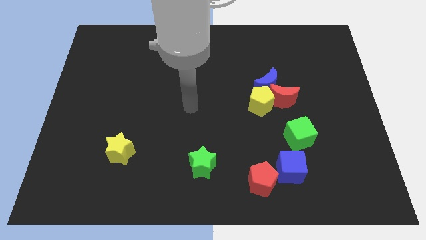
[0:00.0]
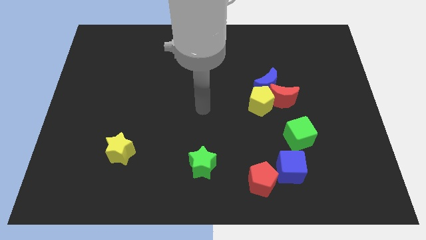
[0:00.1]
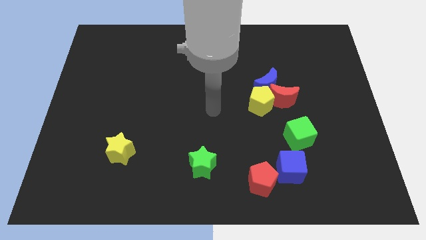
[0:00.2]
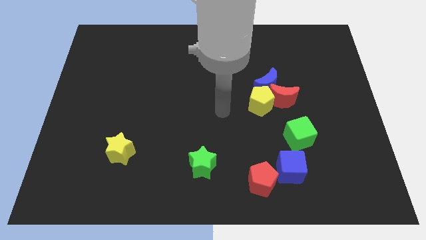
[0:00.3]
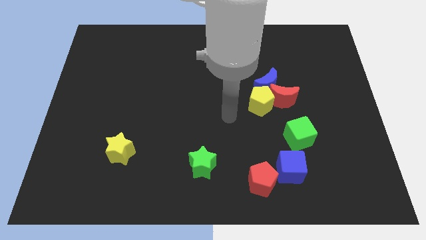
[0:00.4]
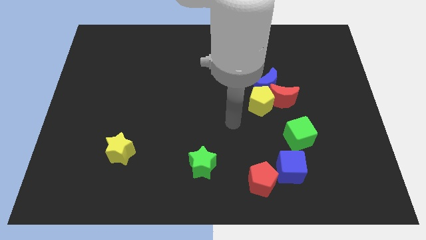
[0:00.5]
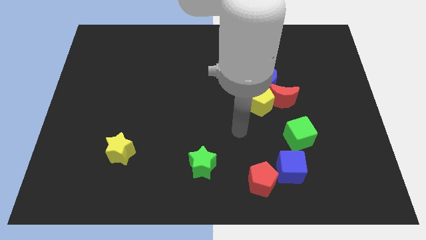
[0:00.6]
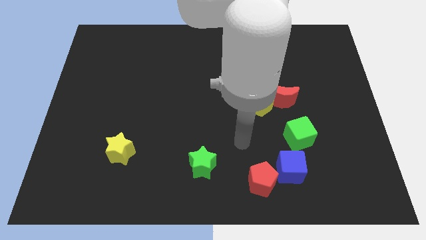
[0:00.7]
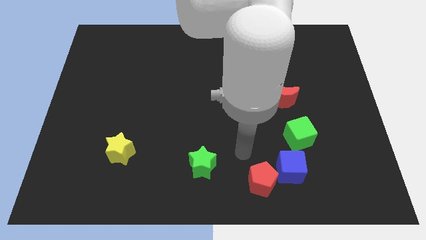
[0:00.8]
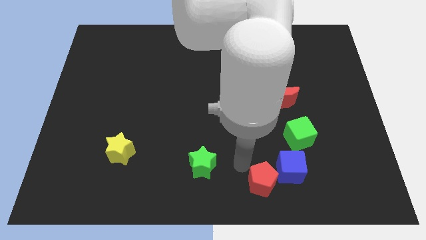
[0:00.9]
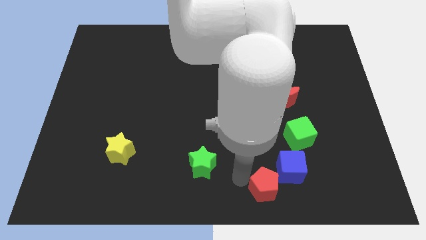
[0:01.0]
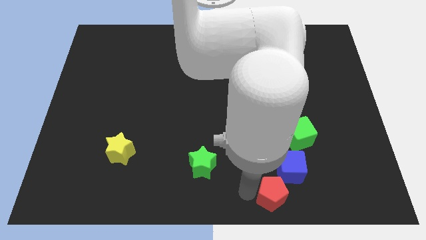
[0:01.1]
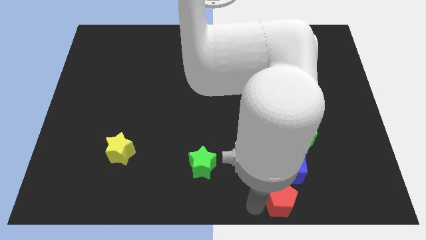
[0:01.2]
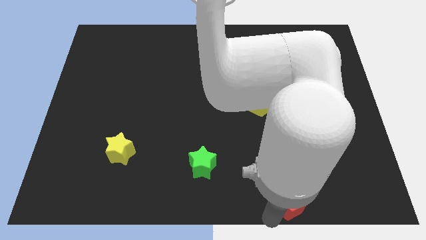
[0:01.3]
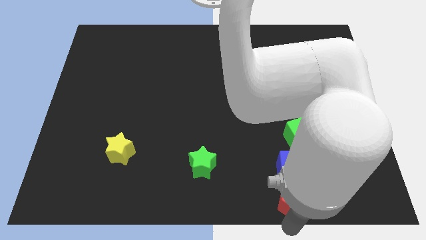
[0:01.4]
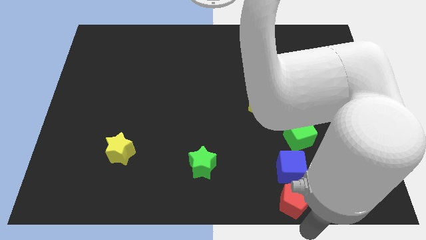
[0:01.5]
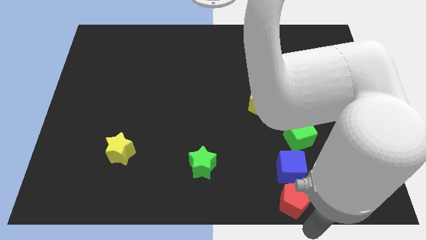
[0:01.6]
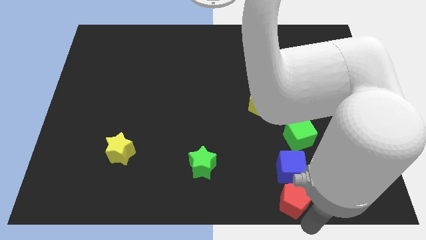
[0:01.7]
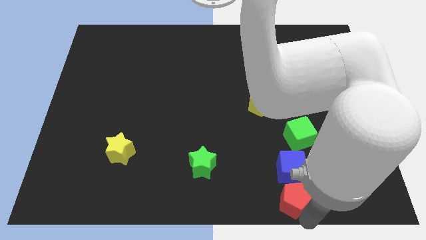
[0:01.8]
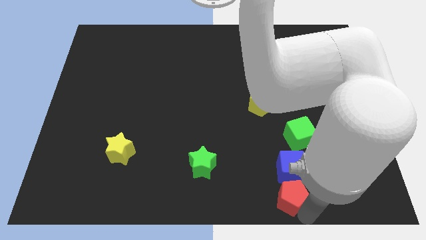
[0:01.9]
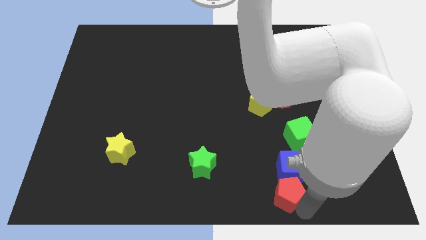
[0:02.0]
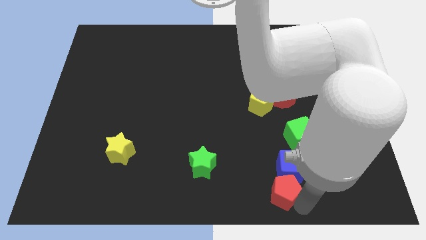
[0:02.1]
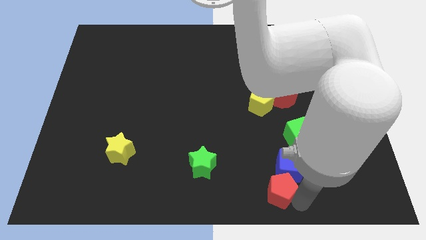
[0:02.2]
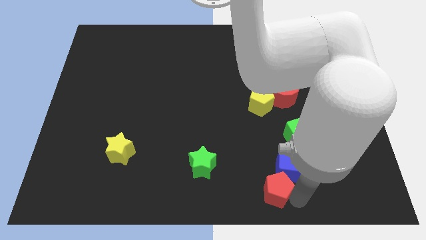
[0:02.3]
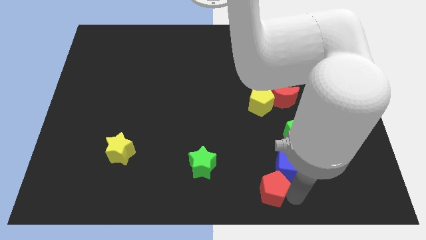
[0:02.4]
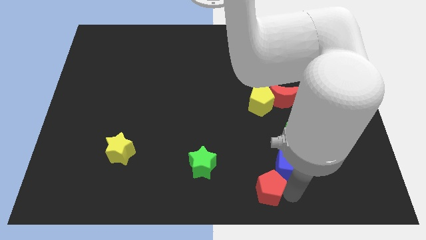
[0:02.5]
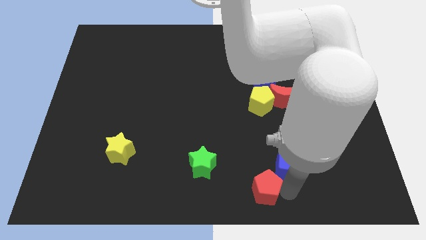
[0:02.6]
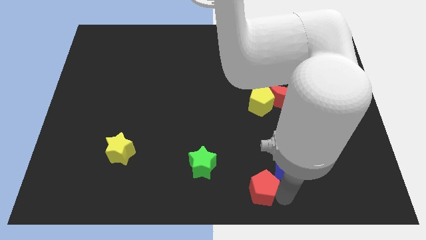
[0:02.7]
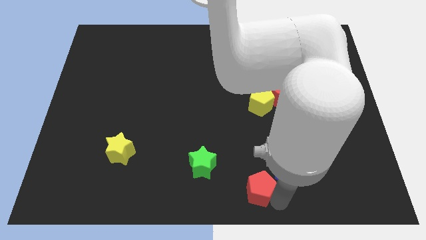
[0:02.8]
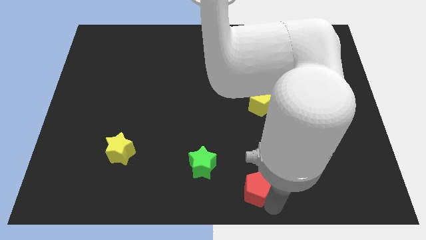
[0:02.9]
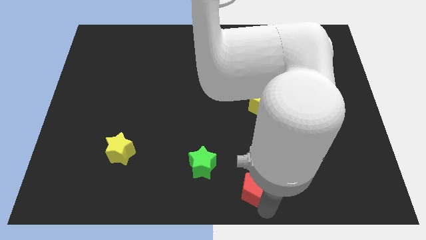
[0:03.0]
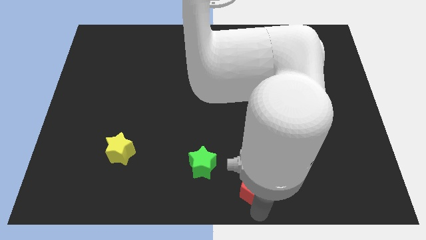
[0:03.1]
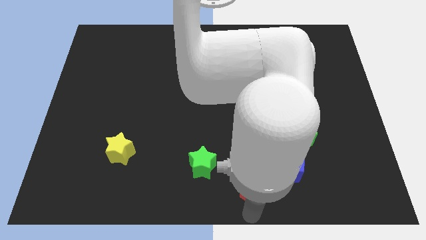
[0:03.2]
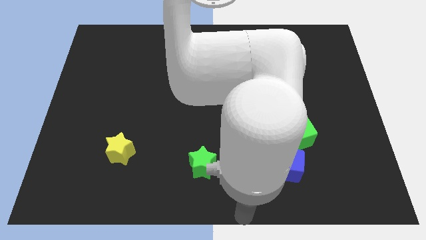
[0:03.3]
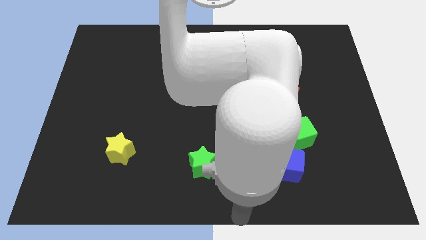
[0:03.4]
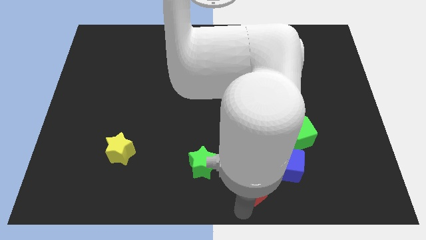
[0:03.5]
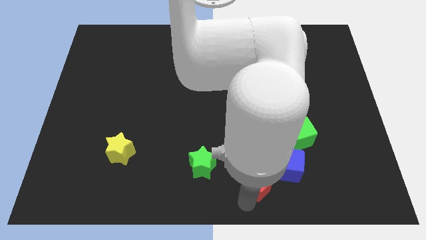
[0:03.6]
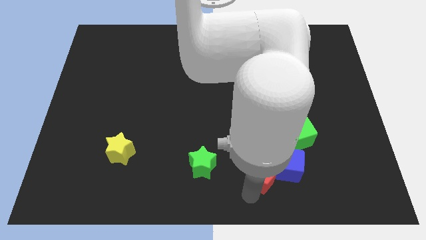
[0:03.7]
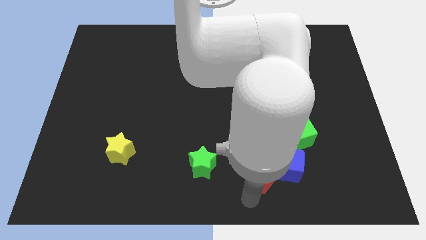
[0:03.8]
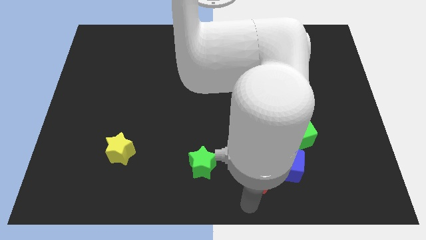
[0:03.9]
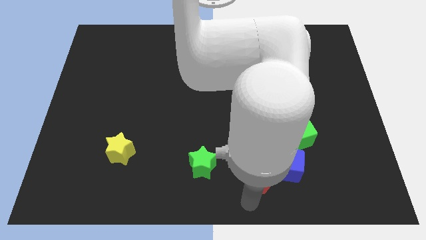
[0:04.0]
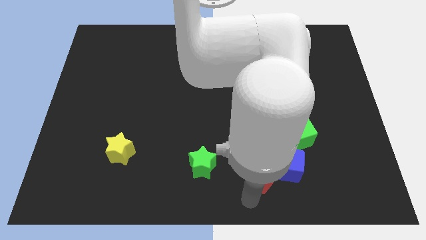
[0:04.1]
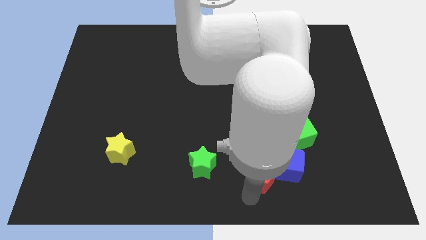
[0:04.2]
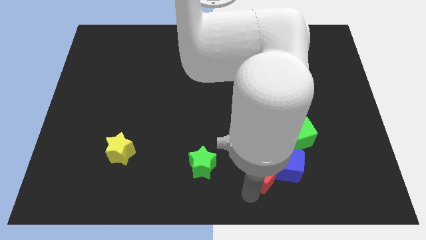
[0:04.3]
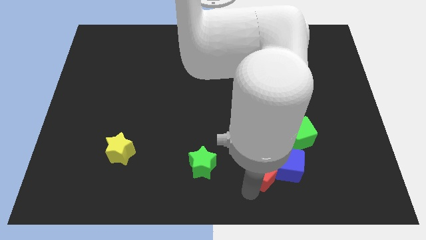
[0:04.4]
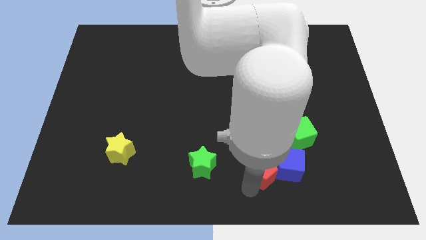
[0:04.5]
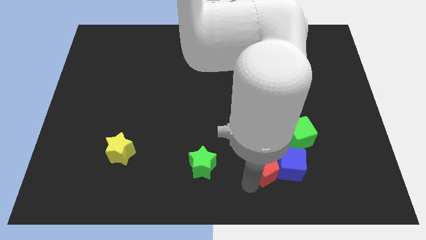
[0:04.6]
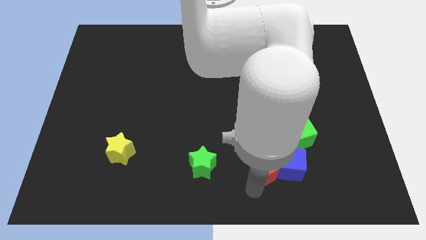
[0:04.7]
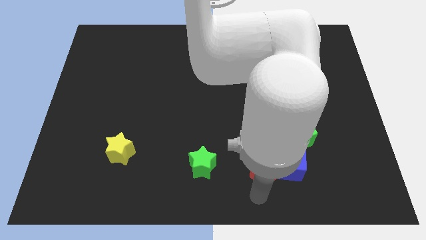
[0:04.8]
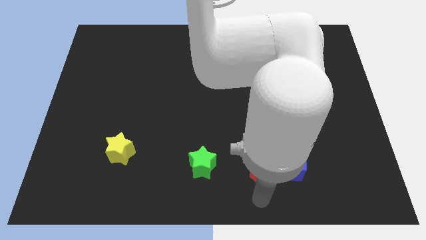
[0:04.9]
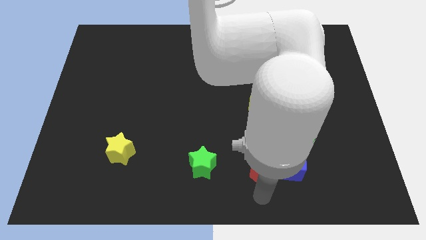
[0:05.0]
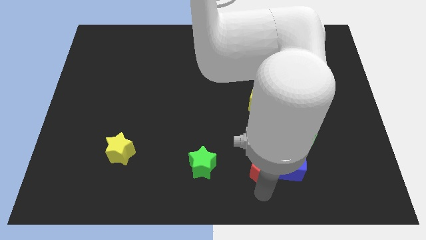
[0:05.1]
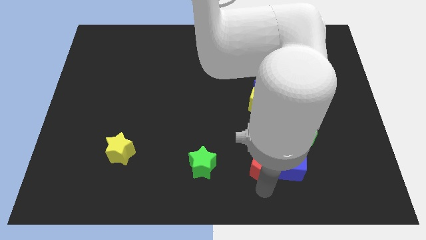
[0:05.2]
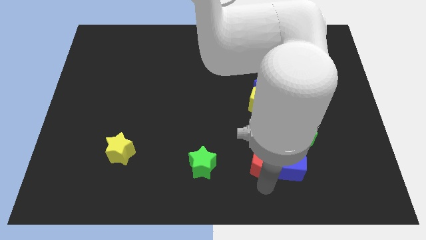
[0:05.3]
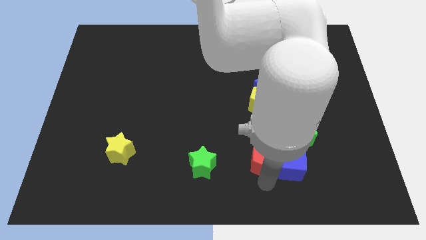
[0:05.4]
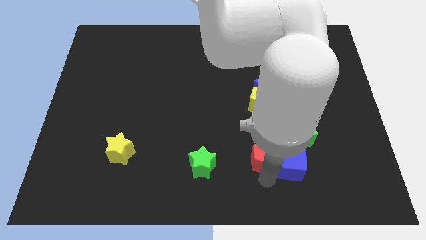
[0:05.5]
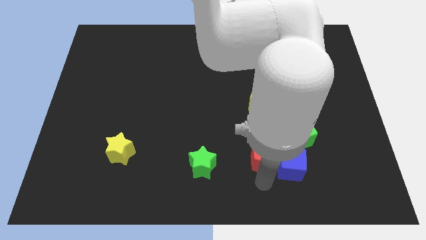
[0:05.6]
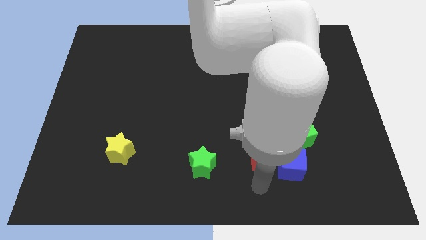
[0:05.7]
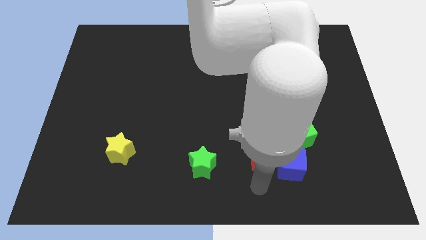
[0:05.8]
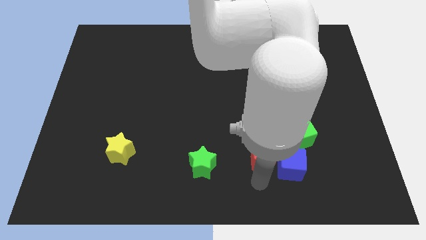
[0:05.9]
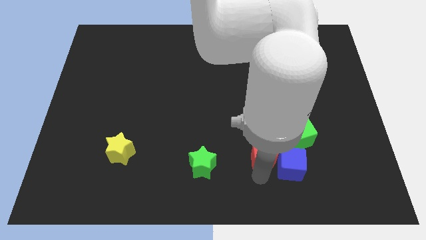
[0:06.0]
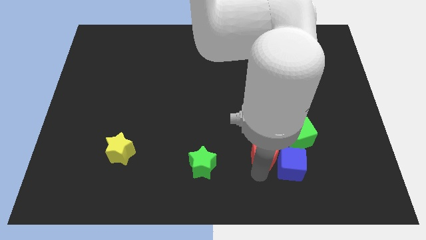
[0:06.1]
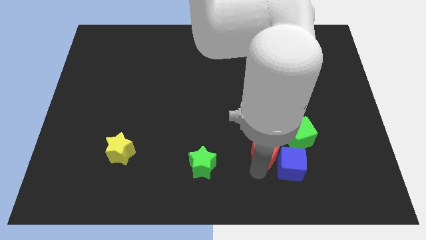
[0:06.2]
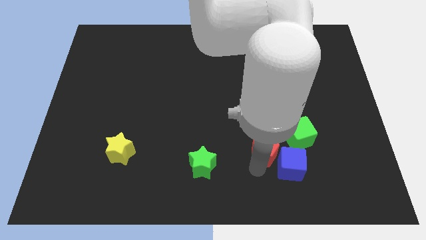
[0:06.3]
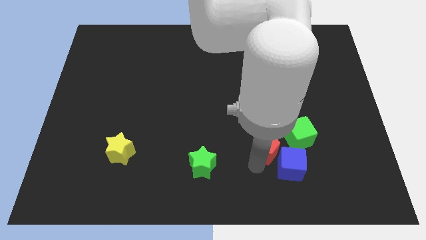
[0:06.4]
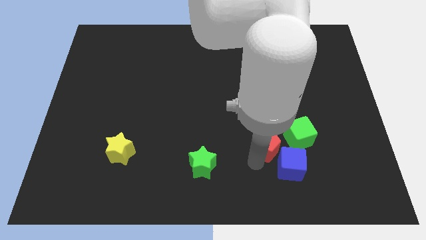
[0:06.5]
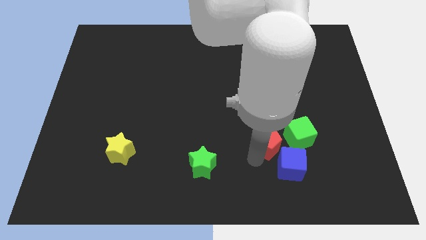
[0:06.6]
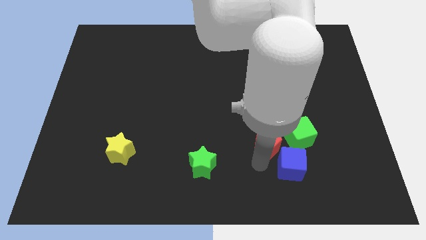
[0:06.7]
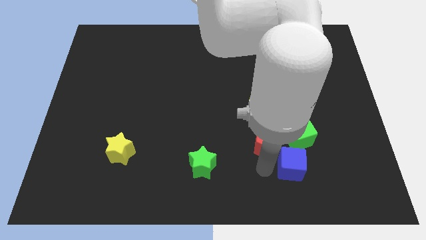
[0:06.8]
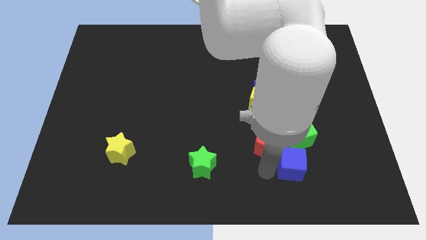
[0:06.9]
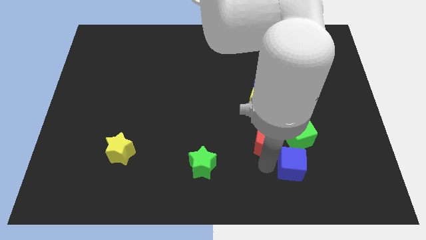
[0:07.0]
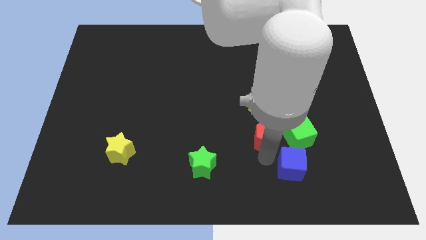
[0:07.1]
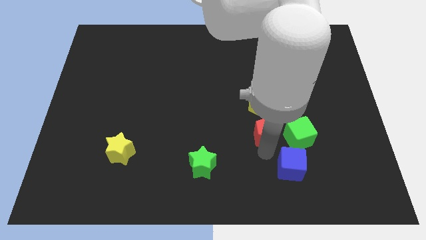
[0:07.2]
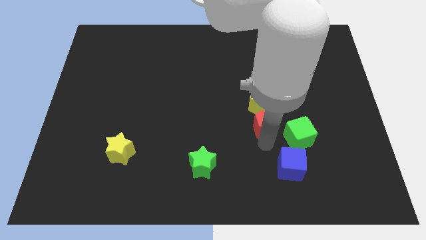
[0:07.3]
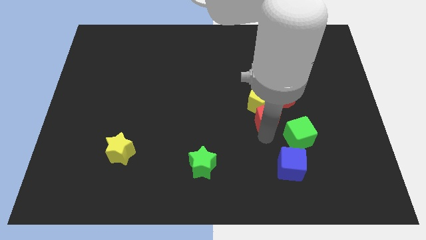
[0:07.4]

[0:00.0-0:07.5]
move the red pentagon next to the yellow pentagon
